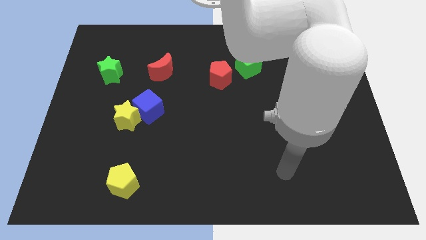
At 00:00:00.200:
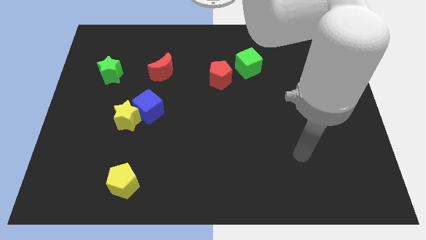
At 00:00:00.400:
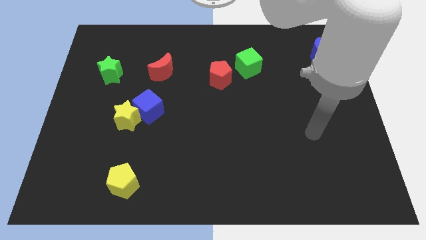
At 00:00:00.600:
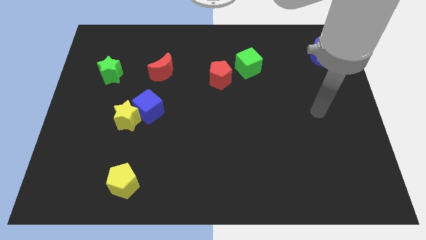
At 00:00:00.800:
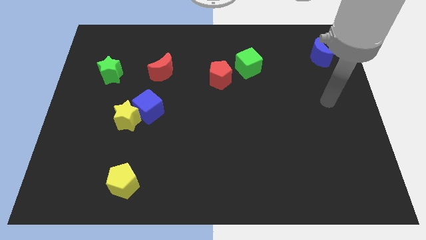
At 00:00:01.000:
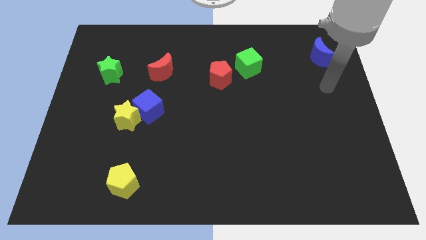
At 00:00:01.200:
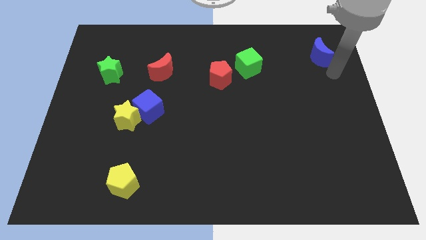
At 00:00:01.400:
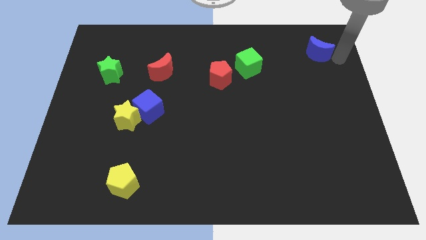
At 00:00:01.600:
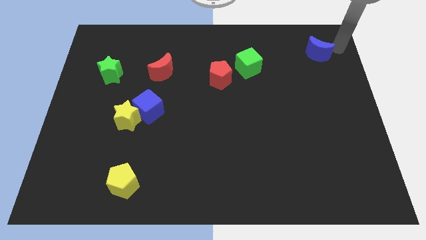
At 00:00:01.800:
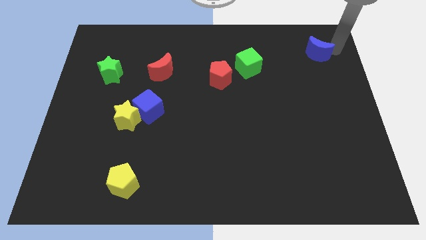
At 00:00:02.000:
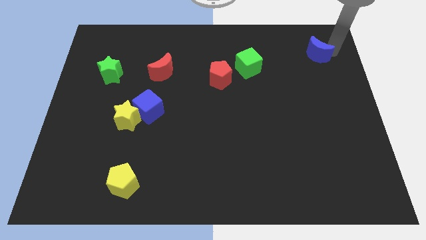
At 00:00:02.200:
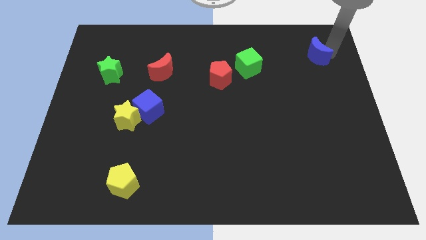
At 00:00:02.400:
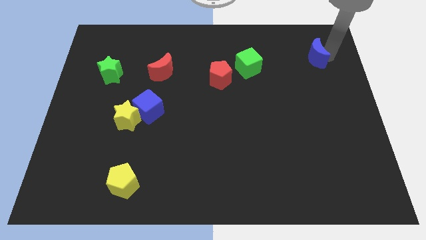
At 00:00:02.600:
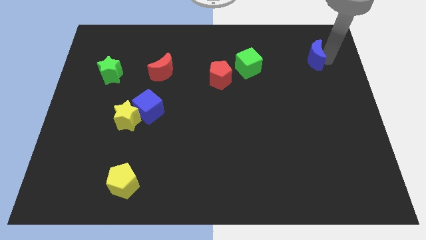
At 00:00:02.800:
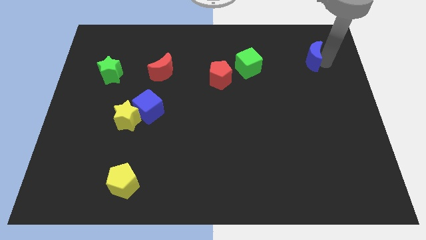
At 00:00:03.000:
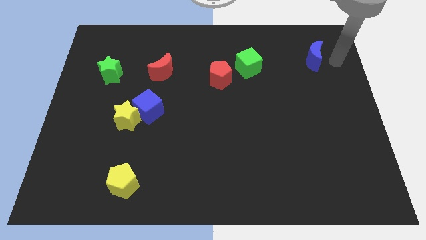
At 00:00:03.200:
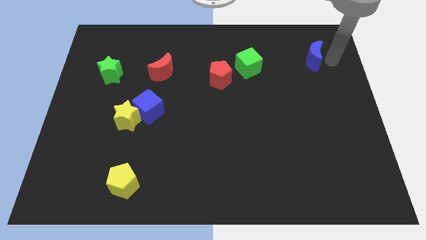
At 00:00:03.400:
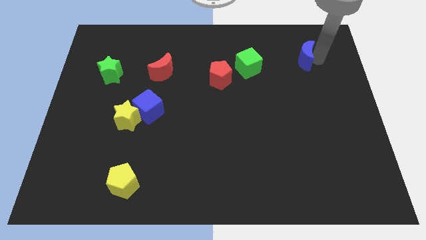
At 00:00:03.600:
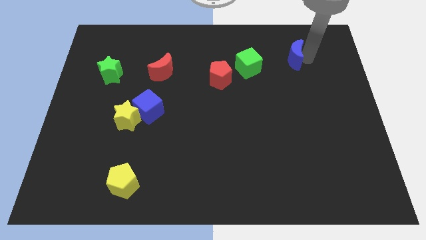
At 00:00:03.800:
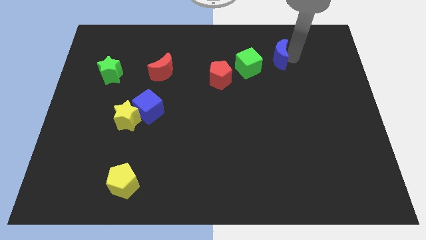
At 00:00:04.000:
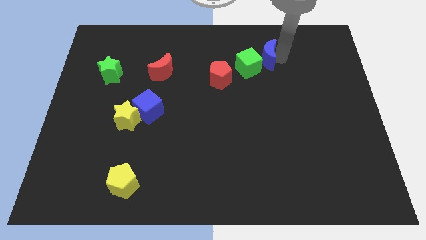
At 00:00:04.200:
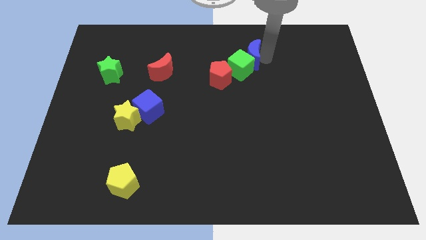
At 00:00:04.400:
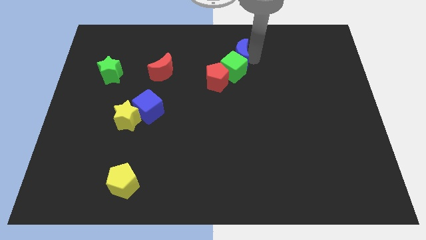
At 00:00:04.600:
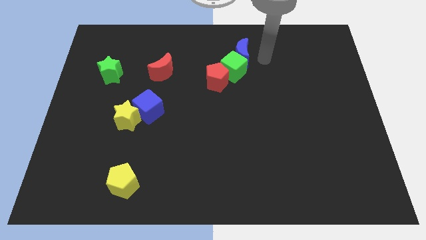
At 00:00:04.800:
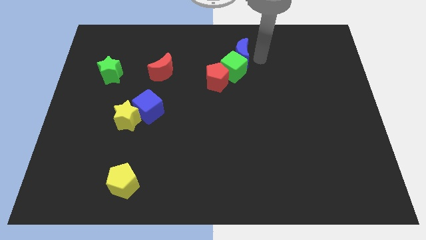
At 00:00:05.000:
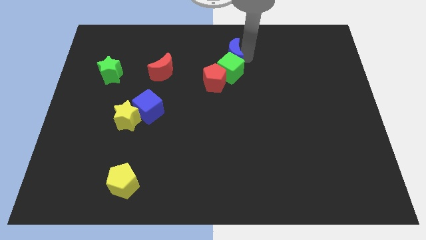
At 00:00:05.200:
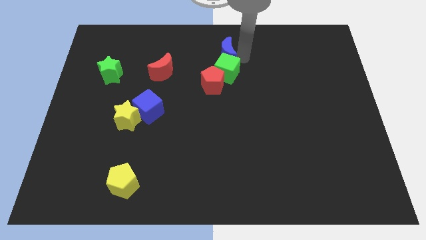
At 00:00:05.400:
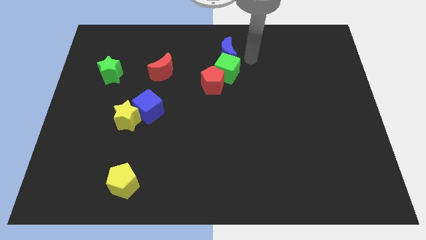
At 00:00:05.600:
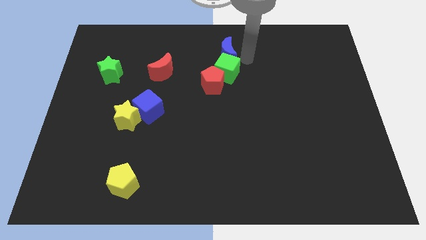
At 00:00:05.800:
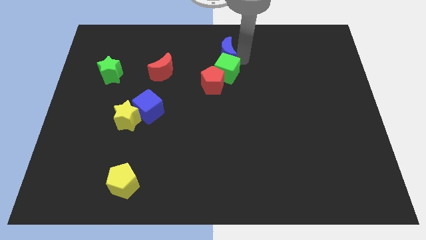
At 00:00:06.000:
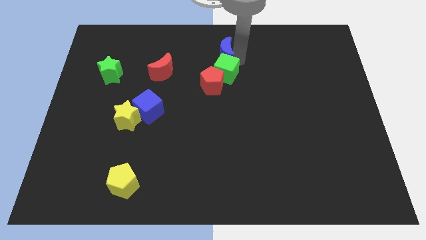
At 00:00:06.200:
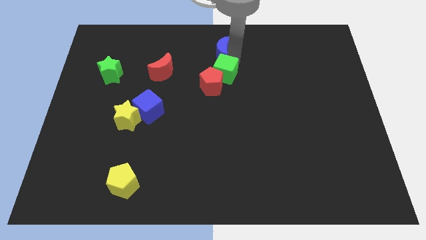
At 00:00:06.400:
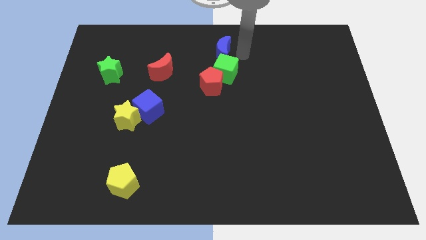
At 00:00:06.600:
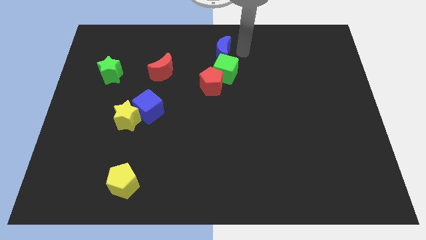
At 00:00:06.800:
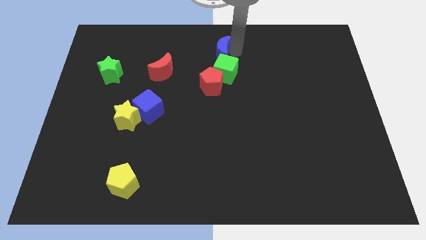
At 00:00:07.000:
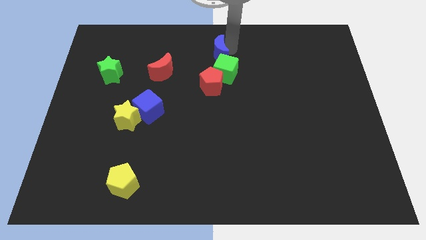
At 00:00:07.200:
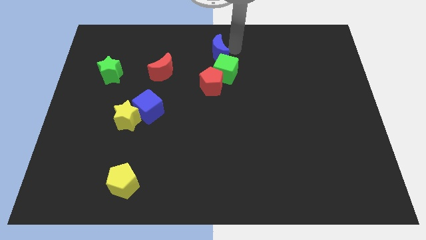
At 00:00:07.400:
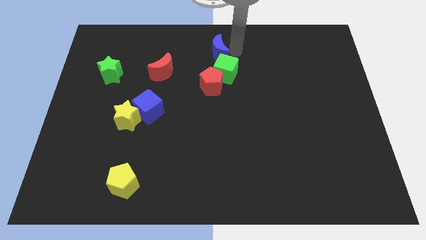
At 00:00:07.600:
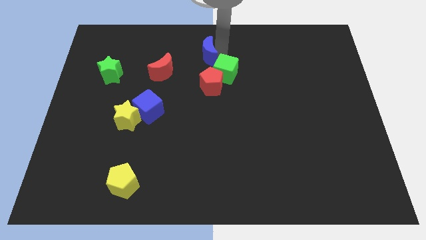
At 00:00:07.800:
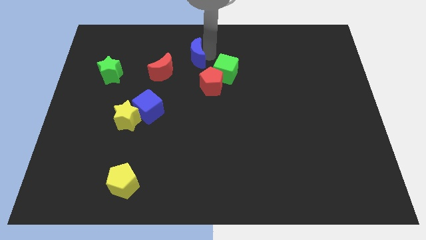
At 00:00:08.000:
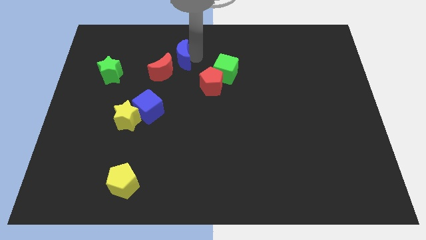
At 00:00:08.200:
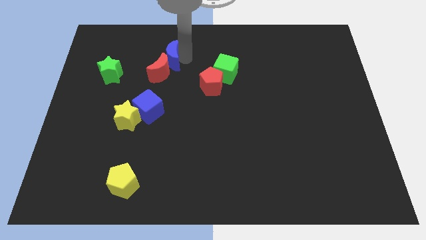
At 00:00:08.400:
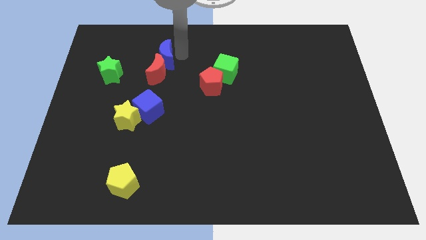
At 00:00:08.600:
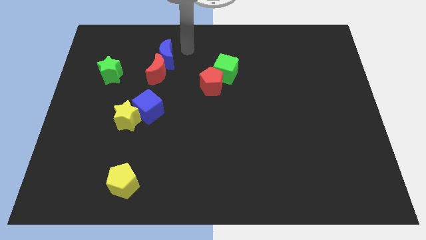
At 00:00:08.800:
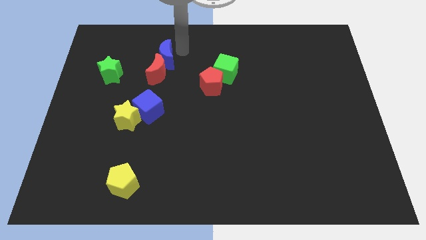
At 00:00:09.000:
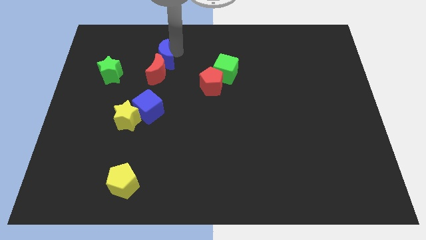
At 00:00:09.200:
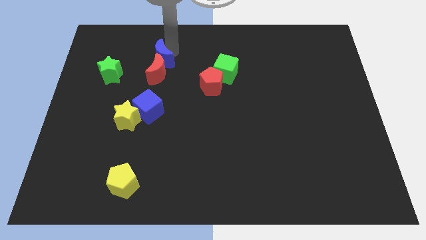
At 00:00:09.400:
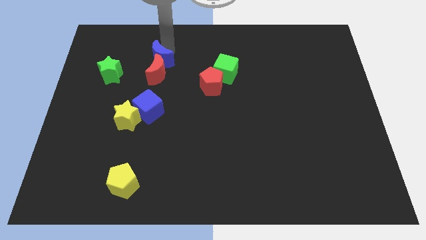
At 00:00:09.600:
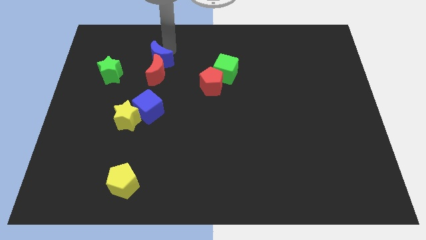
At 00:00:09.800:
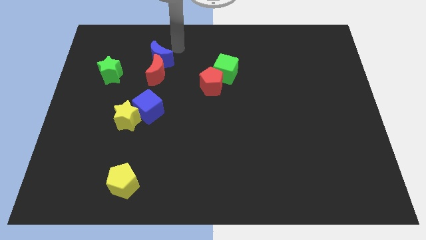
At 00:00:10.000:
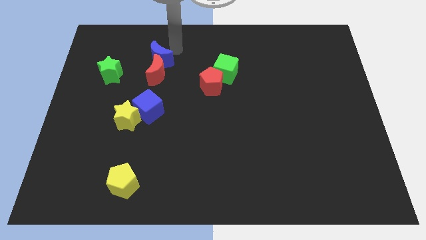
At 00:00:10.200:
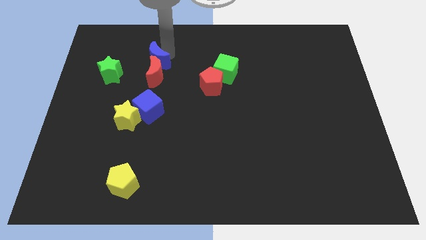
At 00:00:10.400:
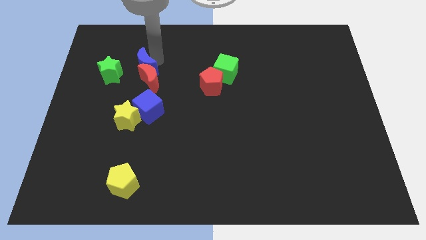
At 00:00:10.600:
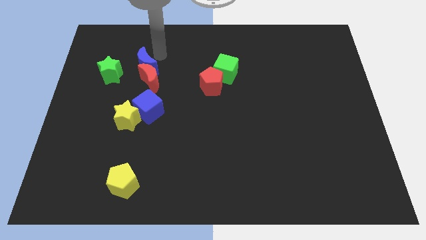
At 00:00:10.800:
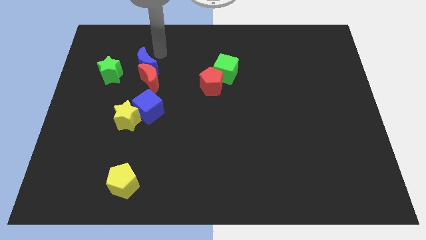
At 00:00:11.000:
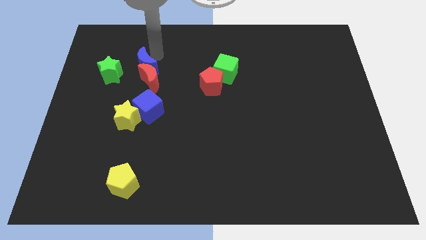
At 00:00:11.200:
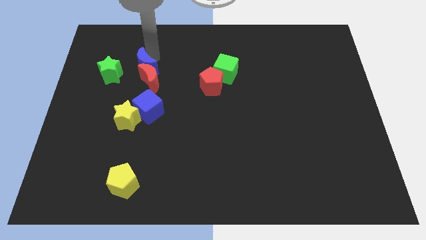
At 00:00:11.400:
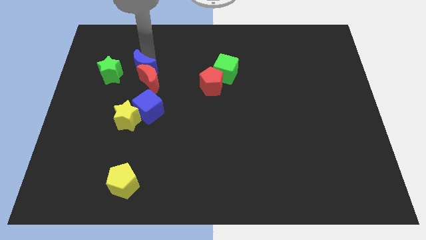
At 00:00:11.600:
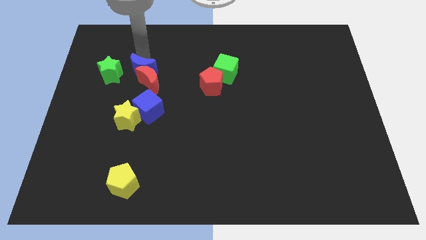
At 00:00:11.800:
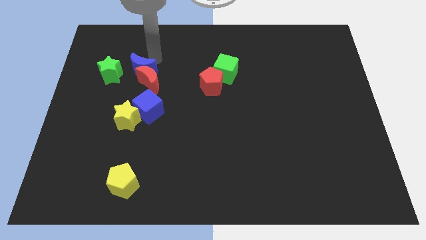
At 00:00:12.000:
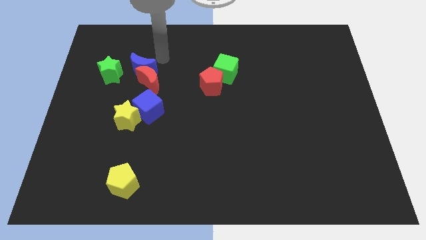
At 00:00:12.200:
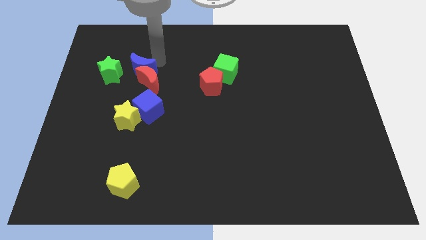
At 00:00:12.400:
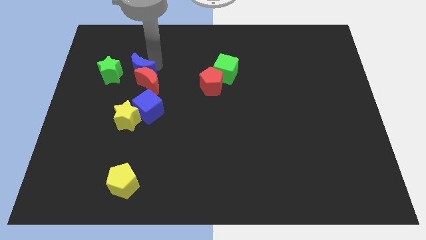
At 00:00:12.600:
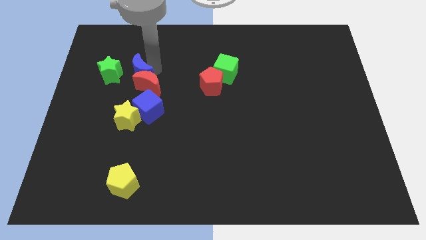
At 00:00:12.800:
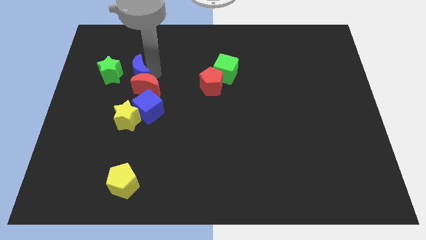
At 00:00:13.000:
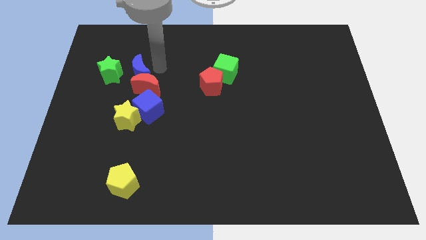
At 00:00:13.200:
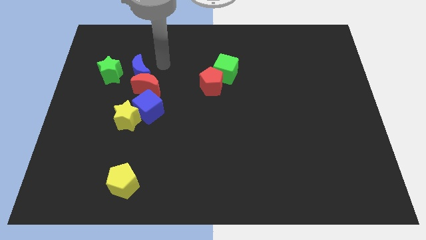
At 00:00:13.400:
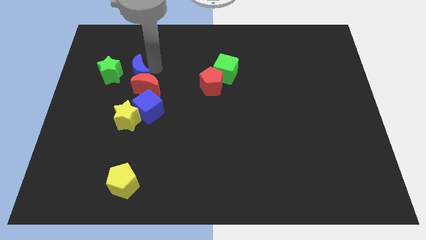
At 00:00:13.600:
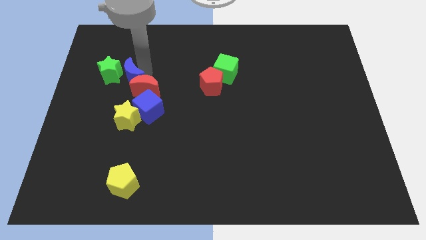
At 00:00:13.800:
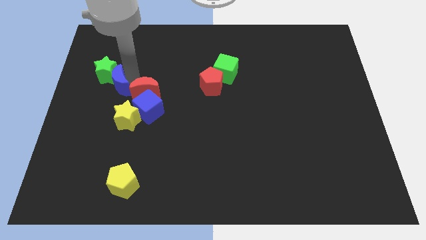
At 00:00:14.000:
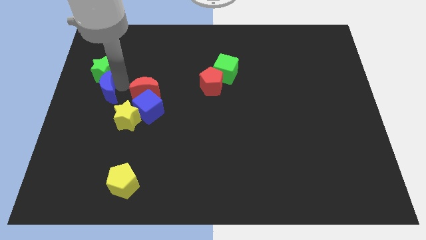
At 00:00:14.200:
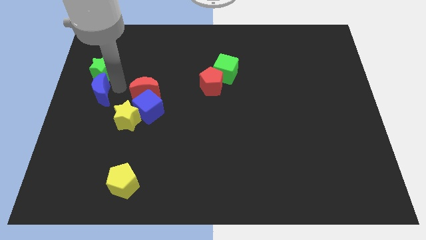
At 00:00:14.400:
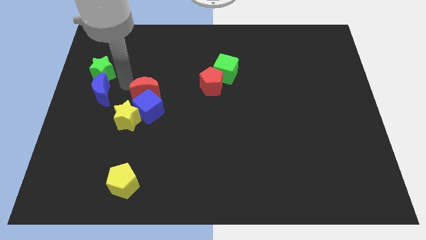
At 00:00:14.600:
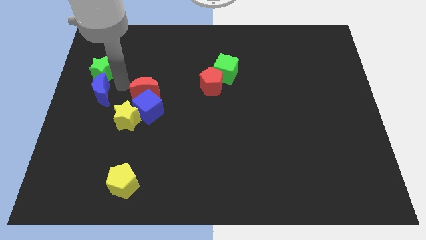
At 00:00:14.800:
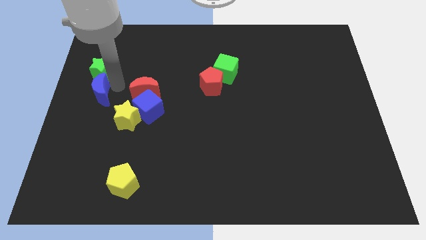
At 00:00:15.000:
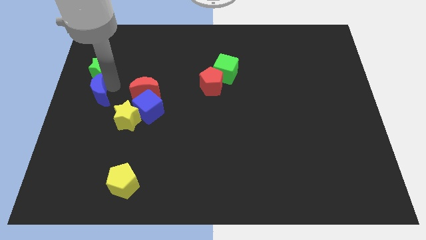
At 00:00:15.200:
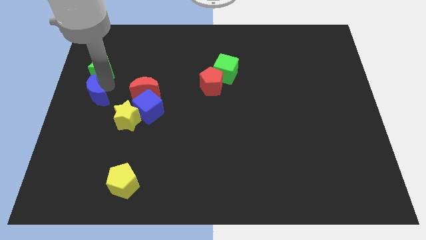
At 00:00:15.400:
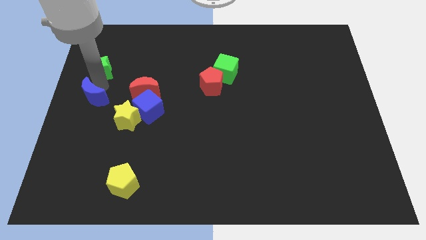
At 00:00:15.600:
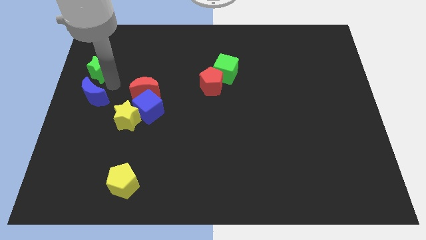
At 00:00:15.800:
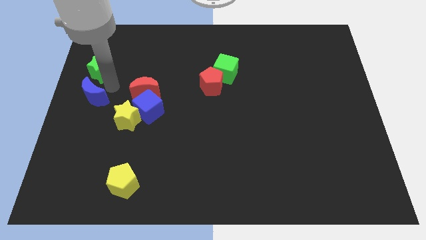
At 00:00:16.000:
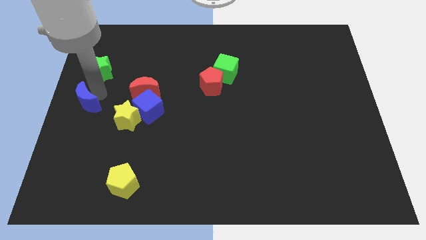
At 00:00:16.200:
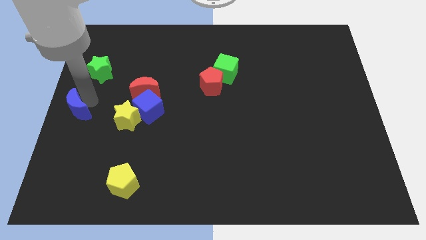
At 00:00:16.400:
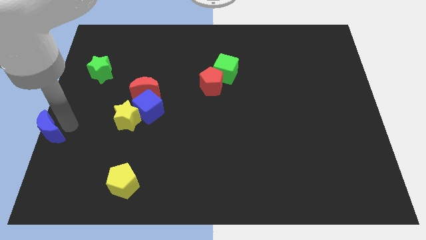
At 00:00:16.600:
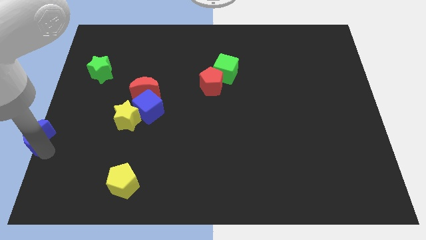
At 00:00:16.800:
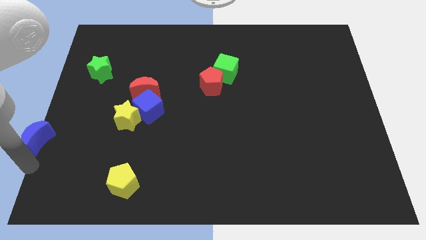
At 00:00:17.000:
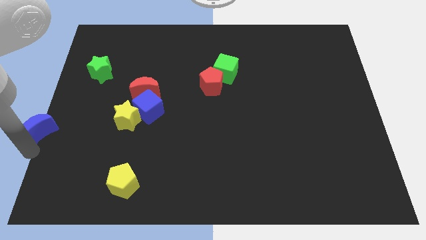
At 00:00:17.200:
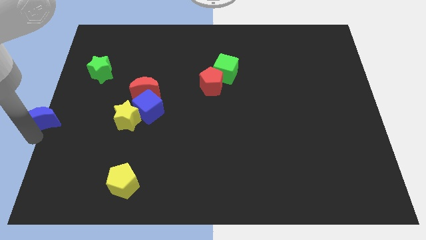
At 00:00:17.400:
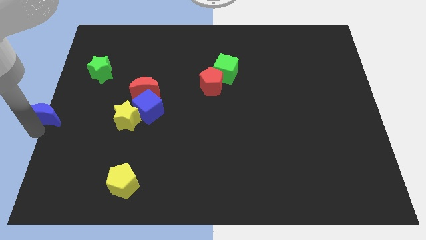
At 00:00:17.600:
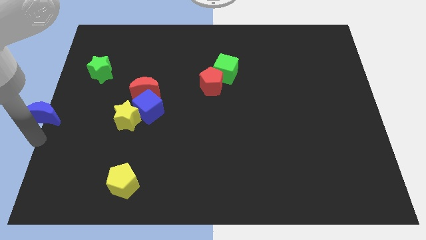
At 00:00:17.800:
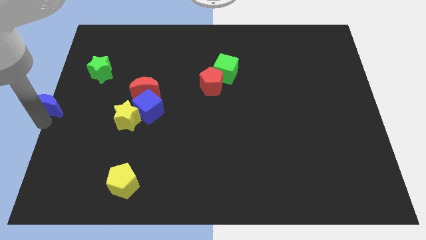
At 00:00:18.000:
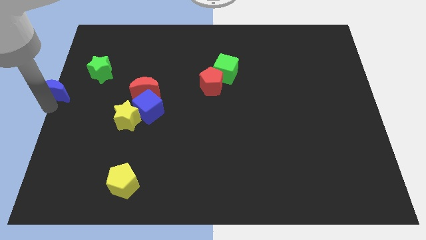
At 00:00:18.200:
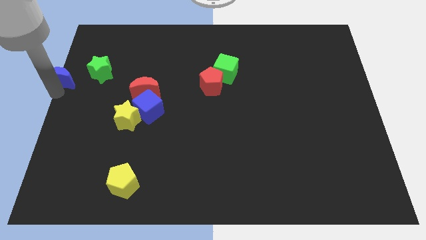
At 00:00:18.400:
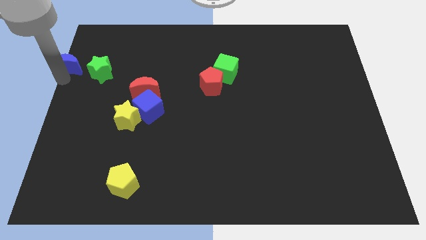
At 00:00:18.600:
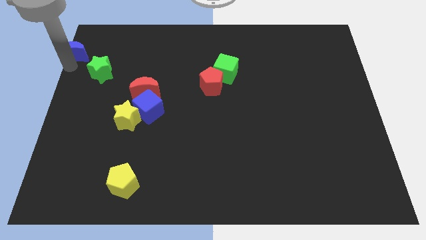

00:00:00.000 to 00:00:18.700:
put the blue moon to the top left of the board
